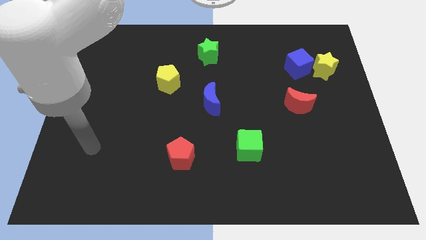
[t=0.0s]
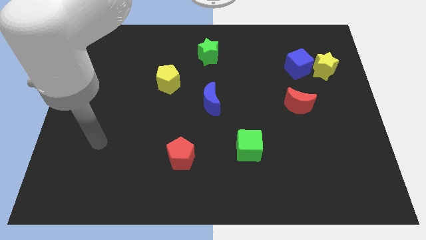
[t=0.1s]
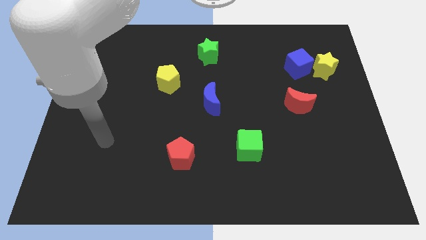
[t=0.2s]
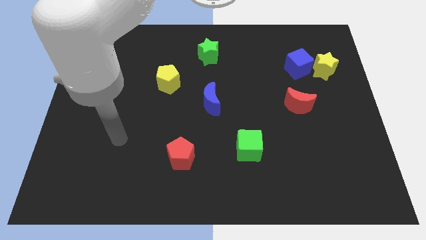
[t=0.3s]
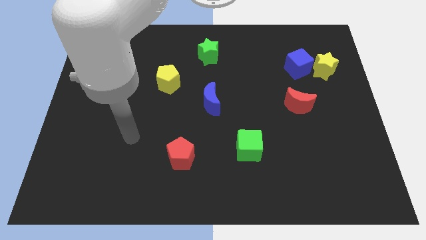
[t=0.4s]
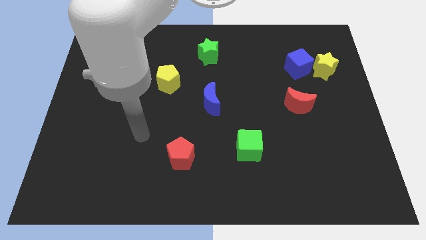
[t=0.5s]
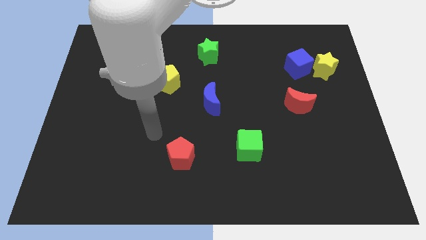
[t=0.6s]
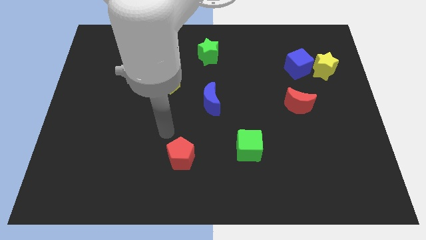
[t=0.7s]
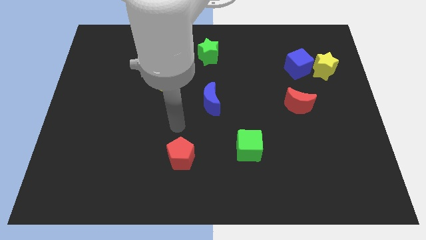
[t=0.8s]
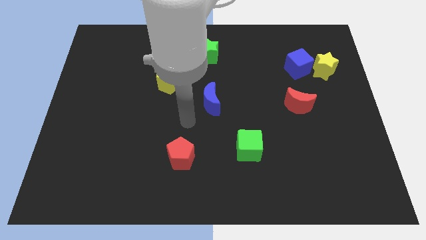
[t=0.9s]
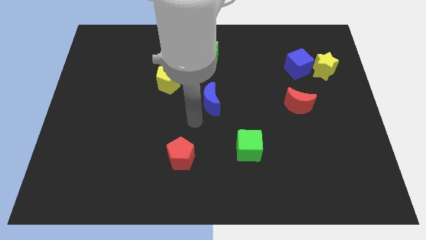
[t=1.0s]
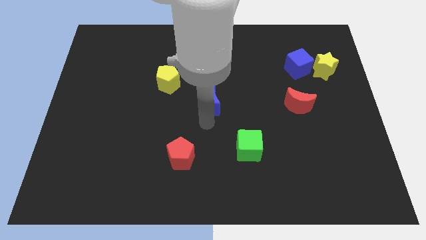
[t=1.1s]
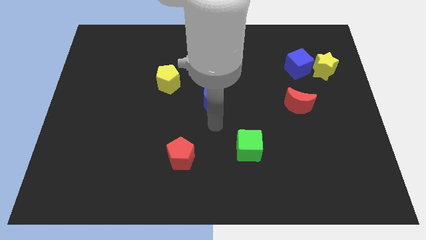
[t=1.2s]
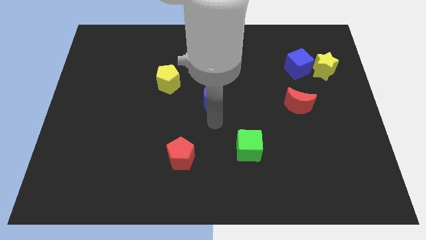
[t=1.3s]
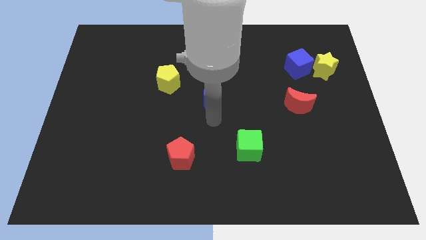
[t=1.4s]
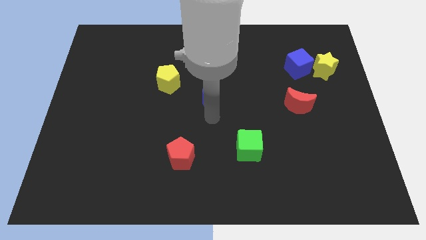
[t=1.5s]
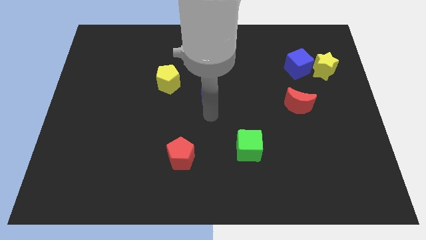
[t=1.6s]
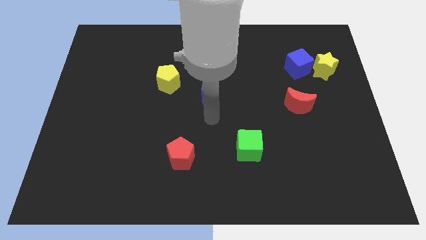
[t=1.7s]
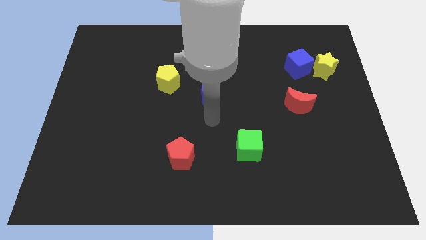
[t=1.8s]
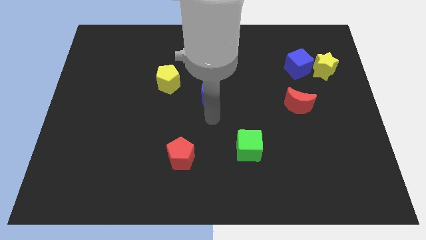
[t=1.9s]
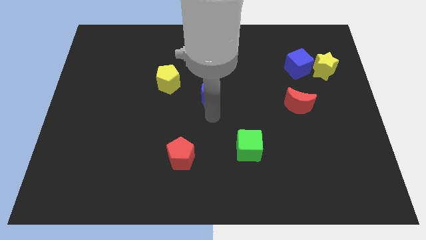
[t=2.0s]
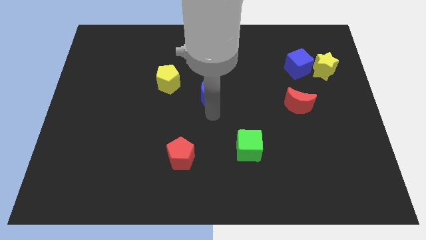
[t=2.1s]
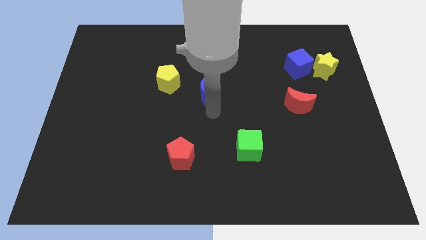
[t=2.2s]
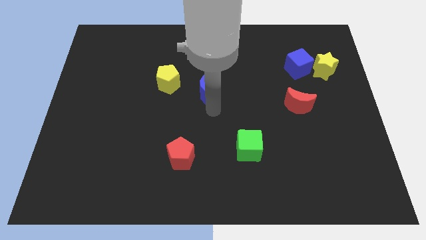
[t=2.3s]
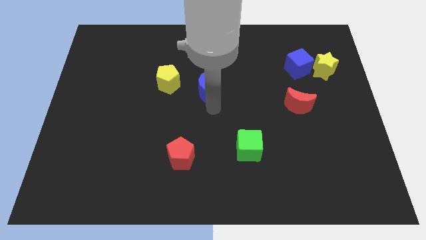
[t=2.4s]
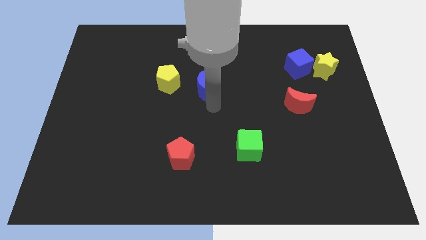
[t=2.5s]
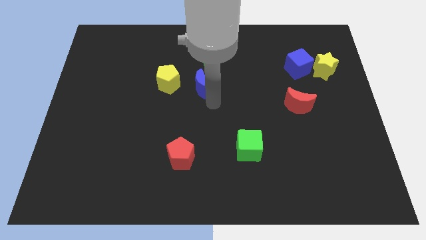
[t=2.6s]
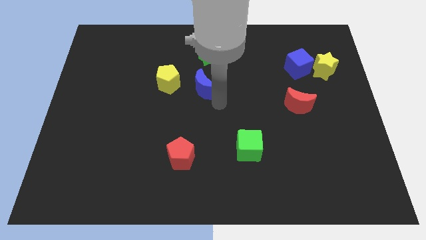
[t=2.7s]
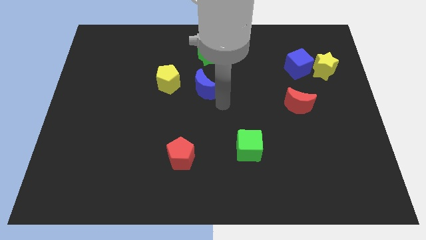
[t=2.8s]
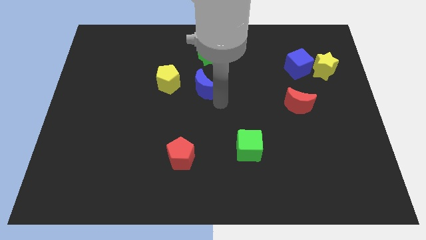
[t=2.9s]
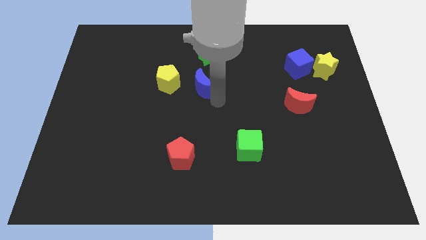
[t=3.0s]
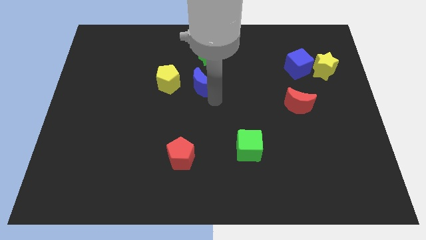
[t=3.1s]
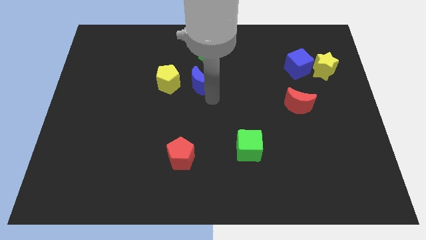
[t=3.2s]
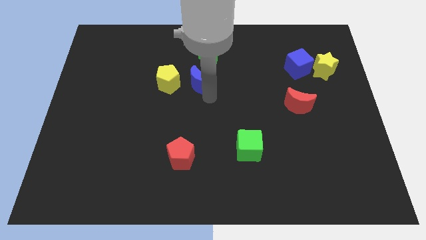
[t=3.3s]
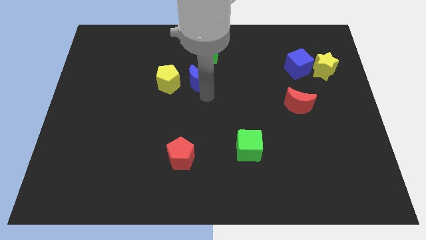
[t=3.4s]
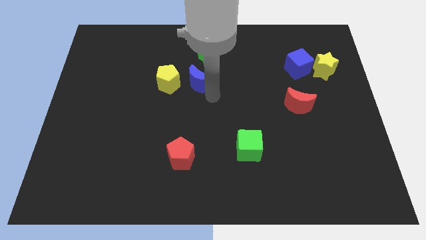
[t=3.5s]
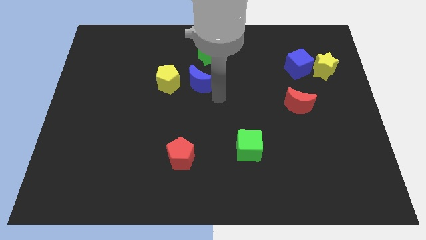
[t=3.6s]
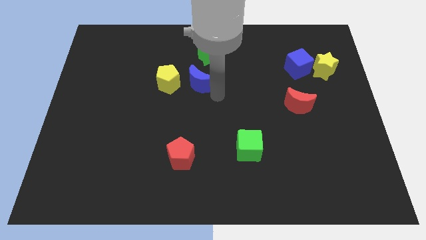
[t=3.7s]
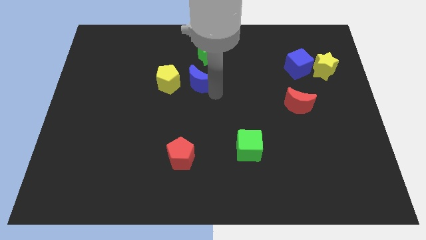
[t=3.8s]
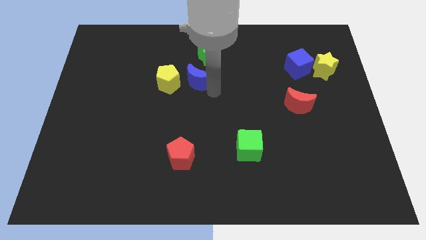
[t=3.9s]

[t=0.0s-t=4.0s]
move the blue moon up and left diagonally a little bit

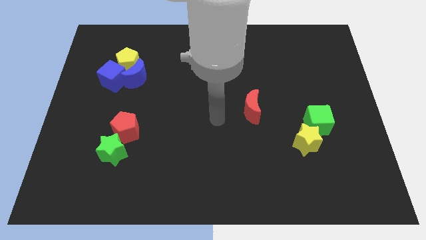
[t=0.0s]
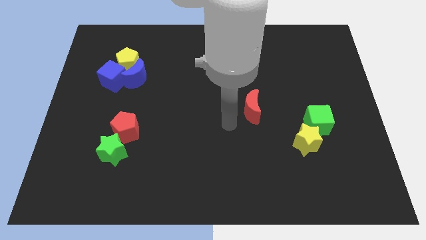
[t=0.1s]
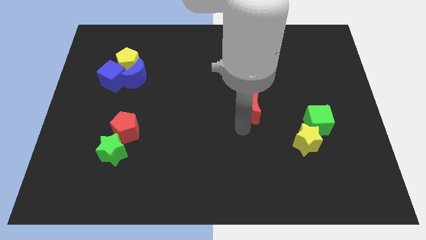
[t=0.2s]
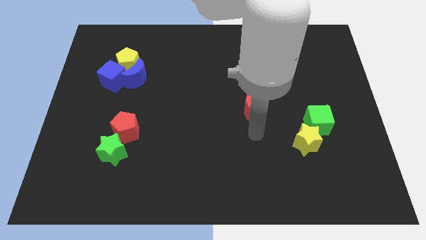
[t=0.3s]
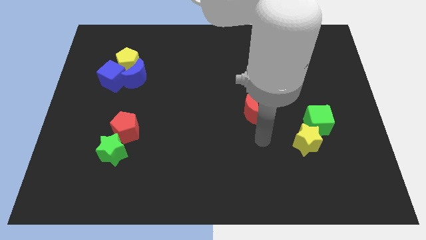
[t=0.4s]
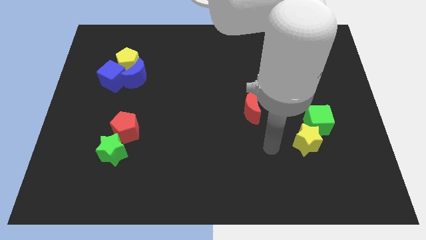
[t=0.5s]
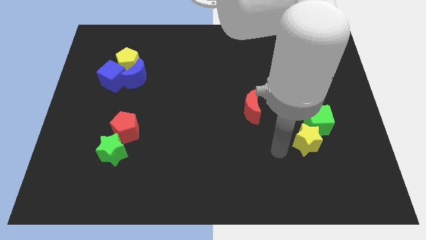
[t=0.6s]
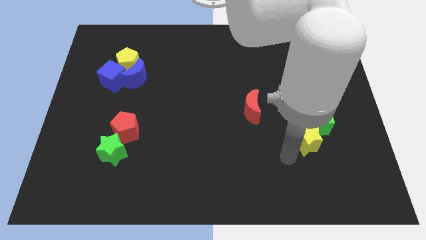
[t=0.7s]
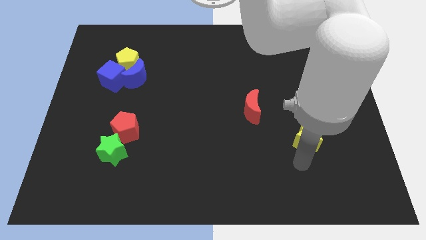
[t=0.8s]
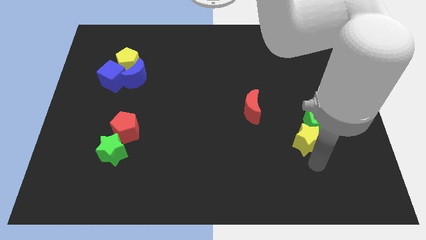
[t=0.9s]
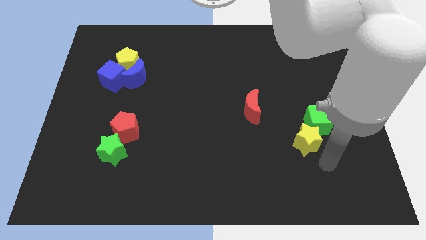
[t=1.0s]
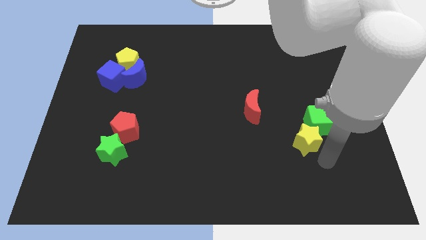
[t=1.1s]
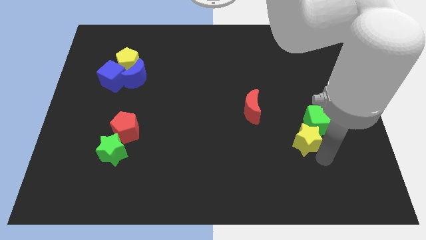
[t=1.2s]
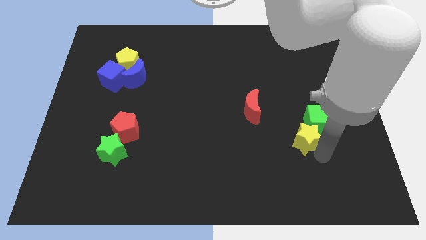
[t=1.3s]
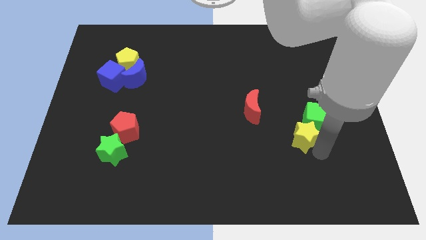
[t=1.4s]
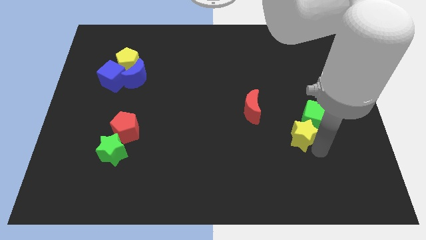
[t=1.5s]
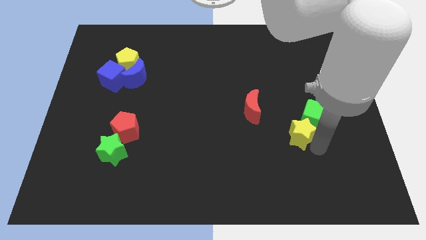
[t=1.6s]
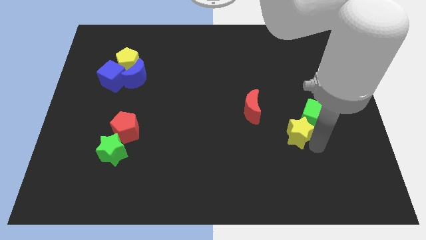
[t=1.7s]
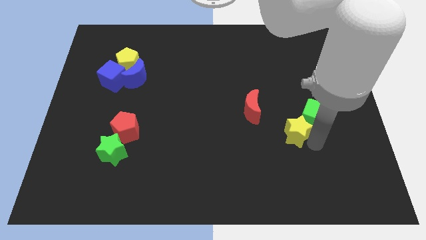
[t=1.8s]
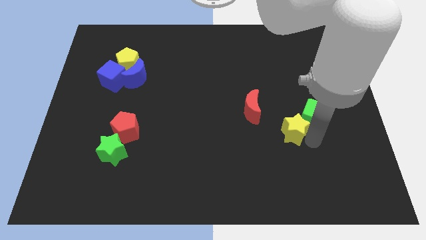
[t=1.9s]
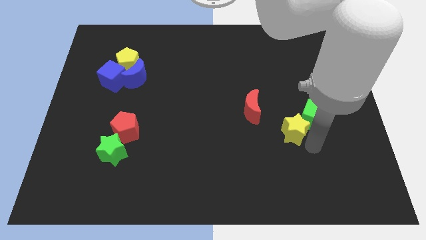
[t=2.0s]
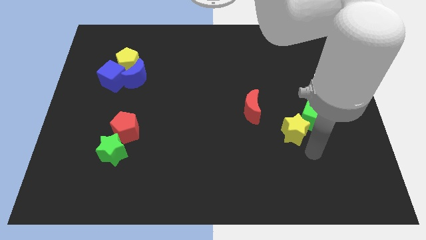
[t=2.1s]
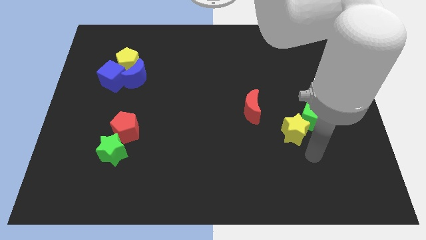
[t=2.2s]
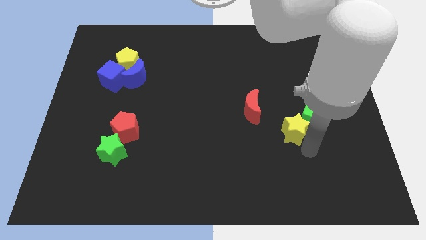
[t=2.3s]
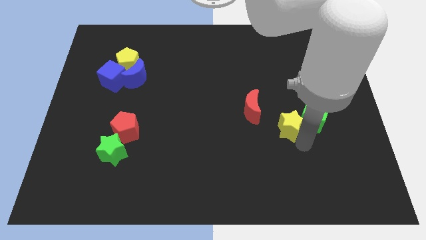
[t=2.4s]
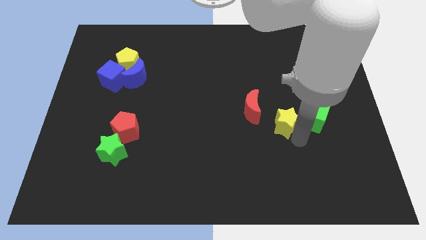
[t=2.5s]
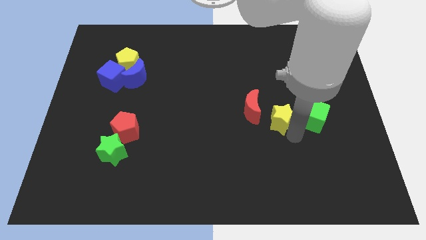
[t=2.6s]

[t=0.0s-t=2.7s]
move the yellow star a bit up and then left

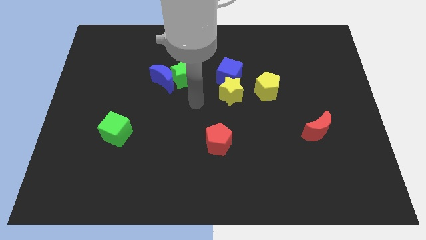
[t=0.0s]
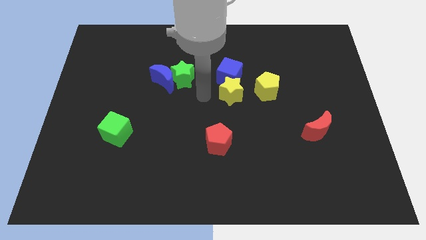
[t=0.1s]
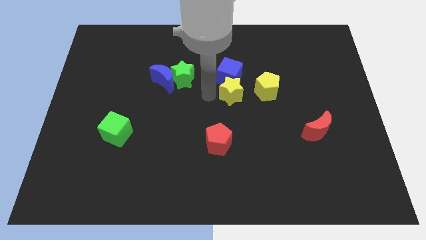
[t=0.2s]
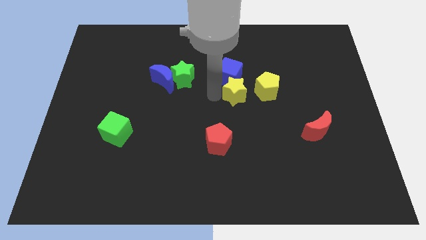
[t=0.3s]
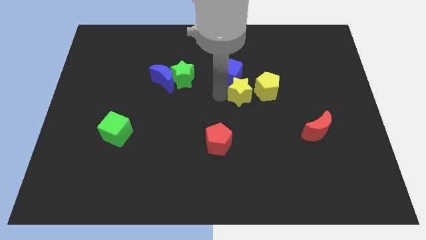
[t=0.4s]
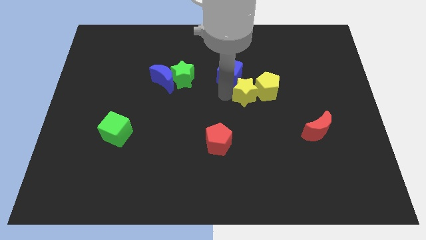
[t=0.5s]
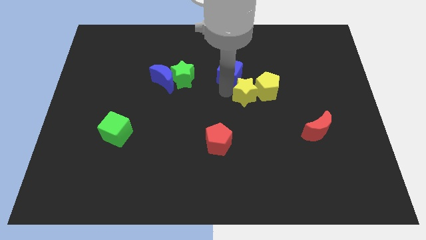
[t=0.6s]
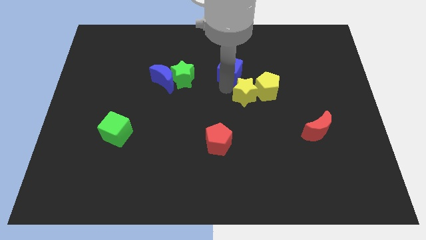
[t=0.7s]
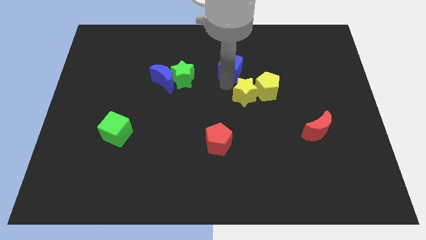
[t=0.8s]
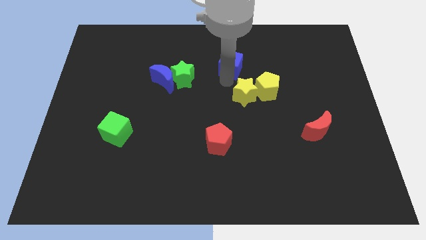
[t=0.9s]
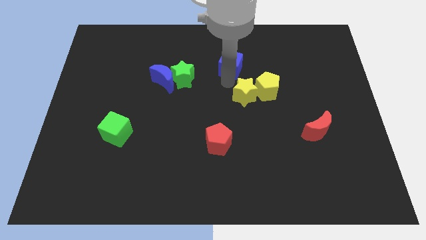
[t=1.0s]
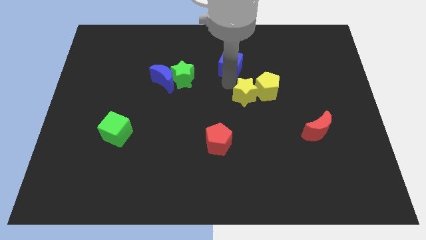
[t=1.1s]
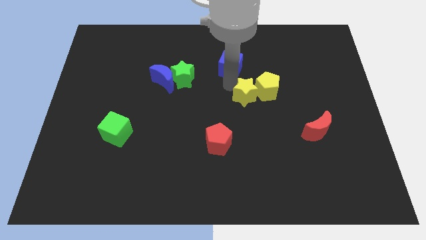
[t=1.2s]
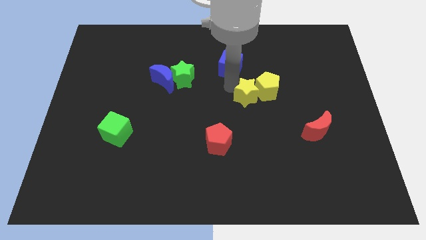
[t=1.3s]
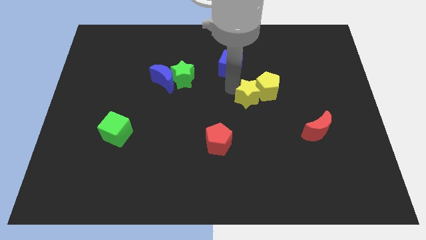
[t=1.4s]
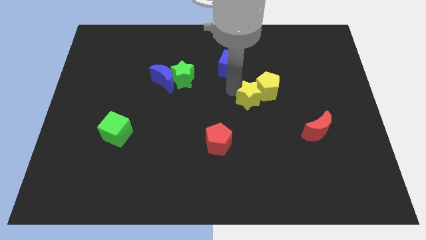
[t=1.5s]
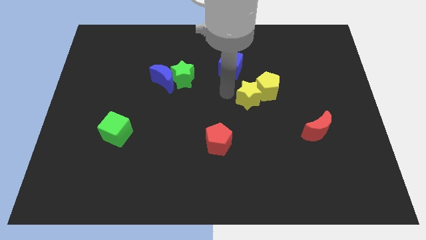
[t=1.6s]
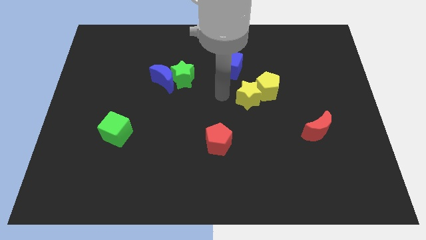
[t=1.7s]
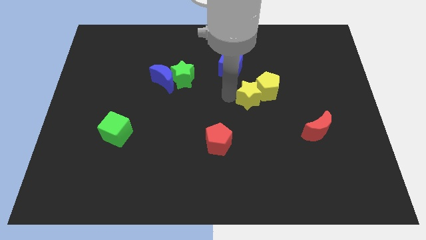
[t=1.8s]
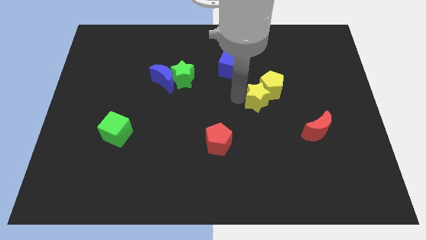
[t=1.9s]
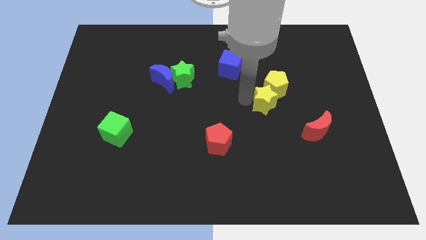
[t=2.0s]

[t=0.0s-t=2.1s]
move the yellow star a bit right
